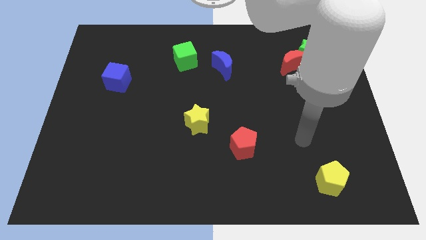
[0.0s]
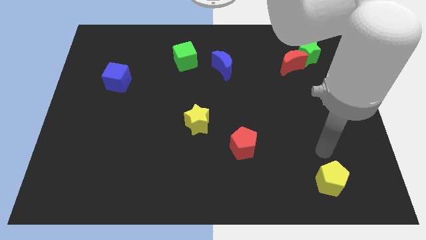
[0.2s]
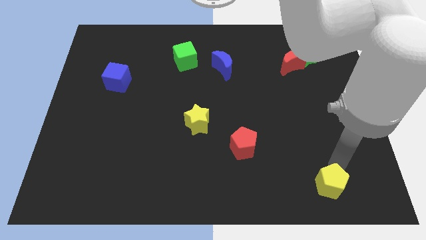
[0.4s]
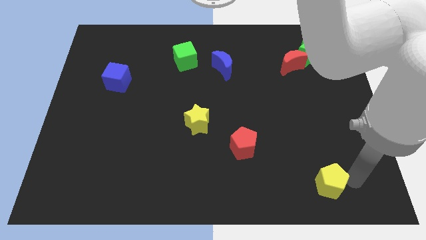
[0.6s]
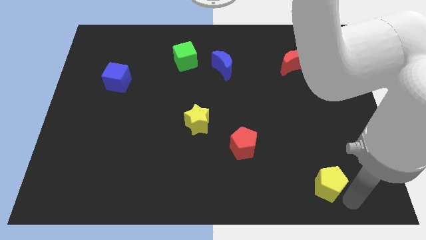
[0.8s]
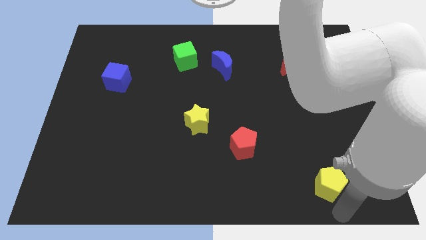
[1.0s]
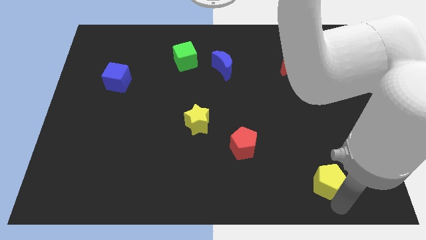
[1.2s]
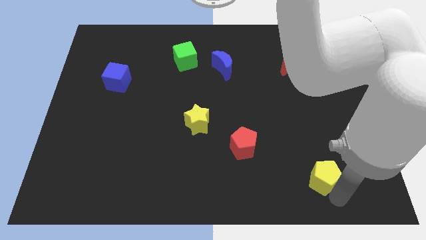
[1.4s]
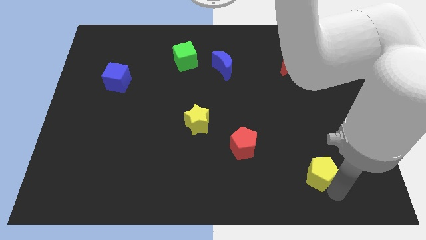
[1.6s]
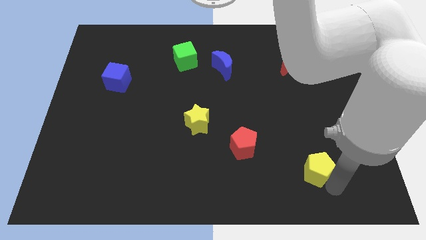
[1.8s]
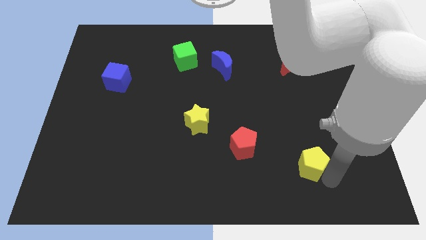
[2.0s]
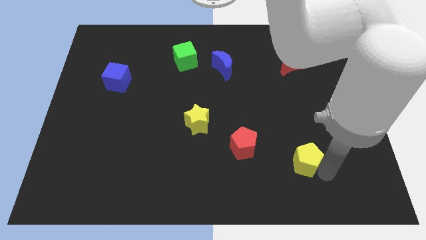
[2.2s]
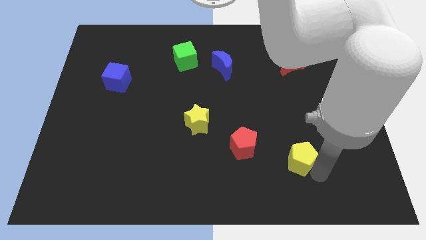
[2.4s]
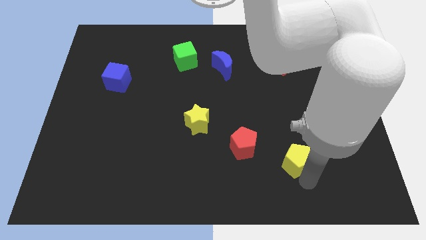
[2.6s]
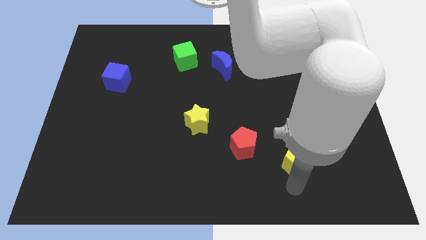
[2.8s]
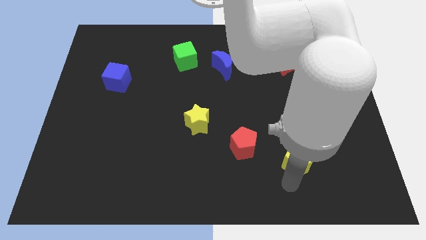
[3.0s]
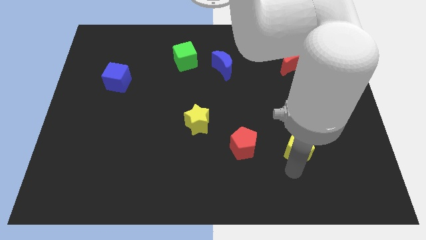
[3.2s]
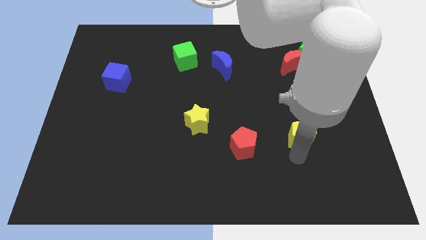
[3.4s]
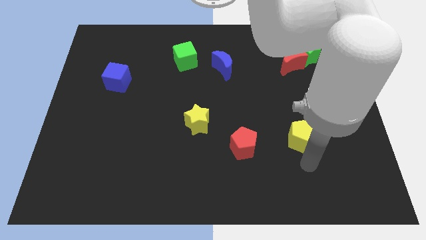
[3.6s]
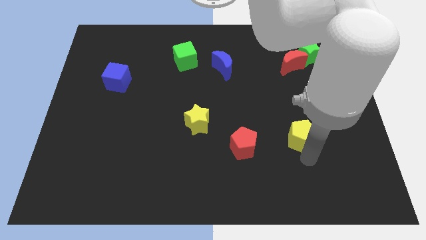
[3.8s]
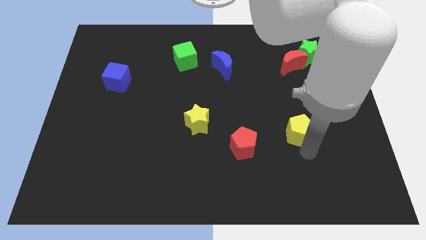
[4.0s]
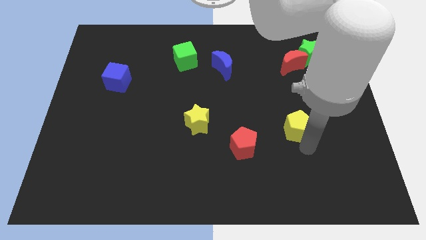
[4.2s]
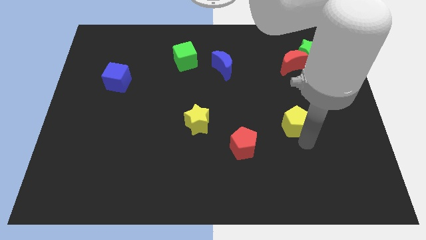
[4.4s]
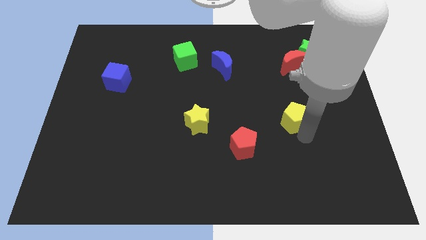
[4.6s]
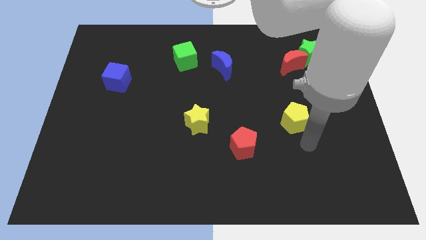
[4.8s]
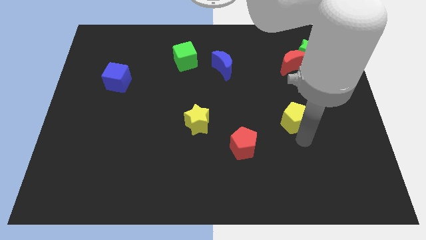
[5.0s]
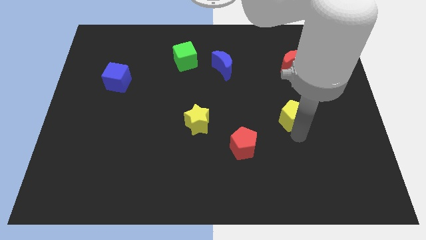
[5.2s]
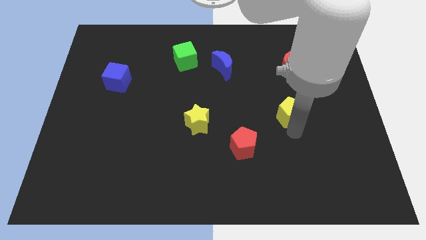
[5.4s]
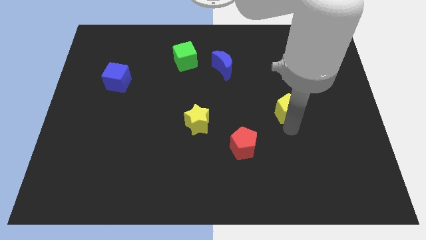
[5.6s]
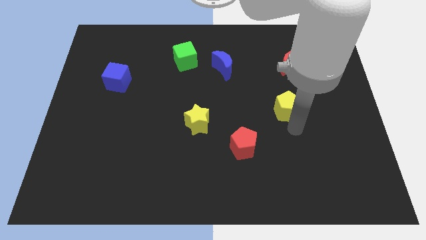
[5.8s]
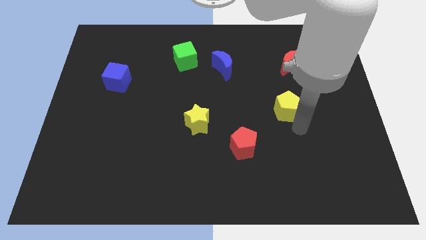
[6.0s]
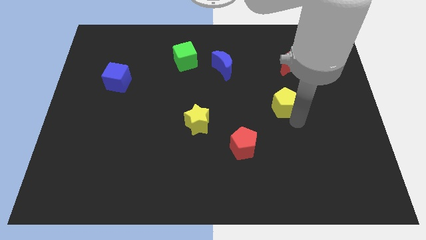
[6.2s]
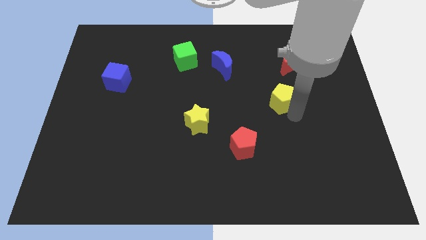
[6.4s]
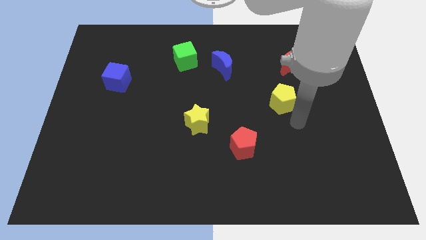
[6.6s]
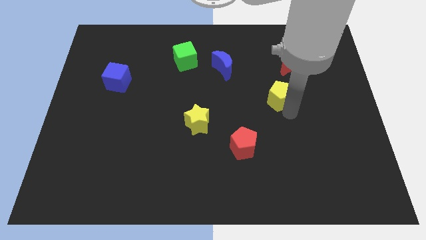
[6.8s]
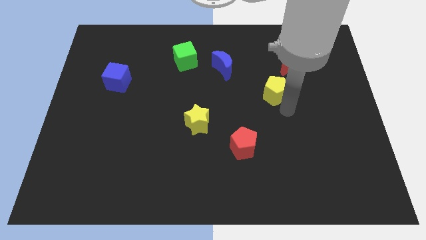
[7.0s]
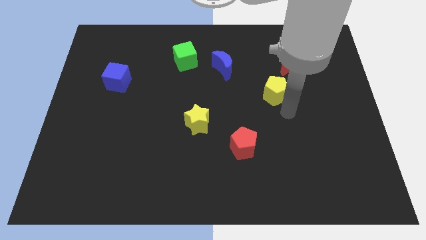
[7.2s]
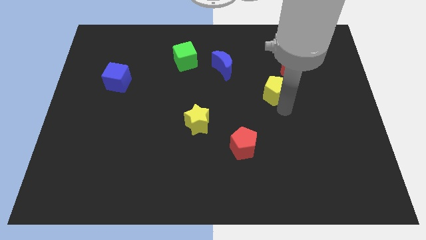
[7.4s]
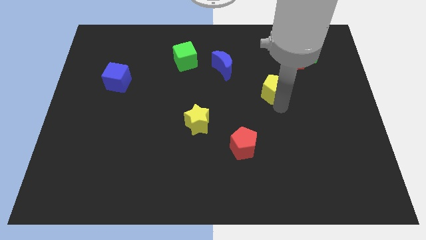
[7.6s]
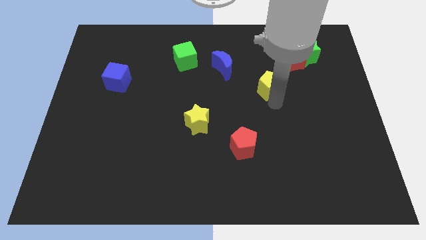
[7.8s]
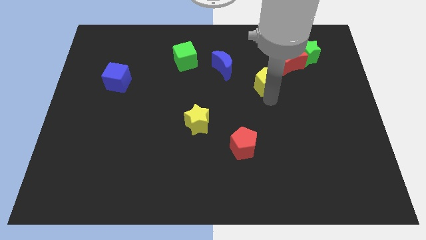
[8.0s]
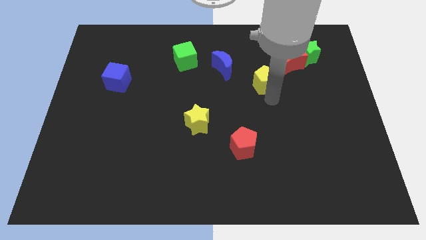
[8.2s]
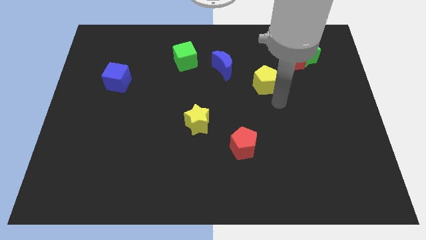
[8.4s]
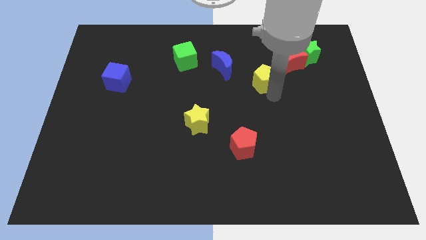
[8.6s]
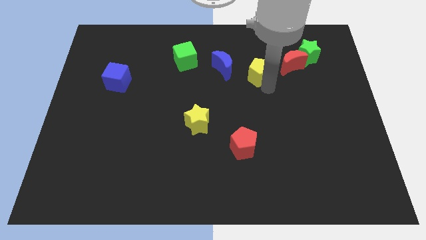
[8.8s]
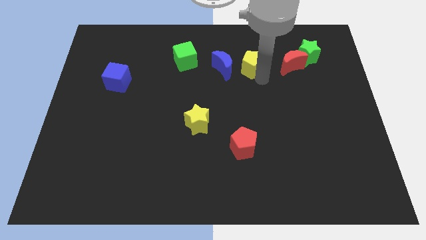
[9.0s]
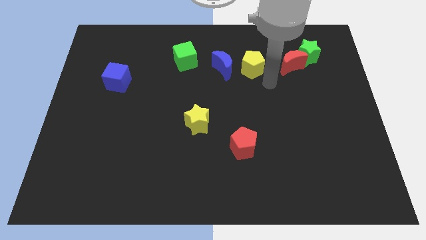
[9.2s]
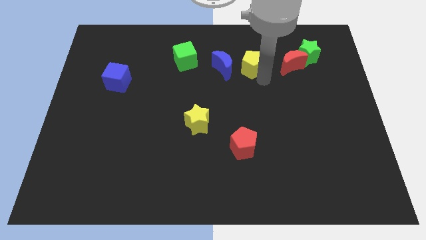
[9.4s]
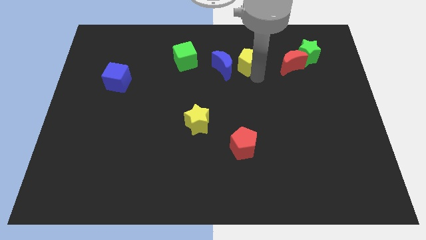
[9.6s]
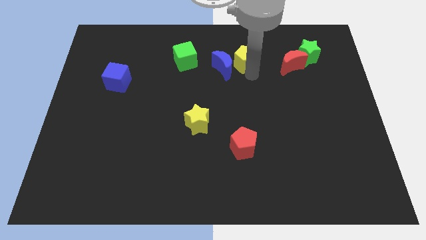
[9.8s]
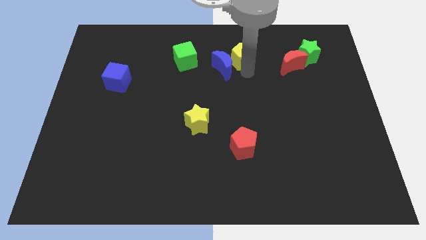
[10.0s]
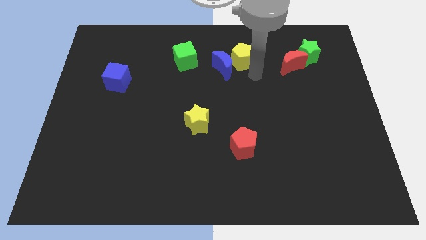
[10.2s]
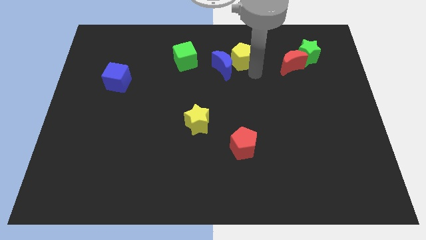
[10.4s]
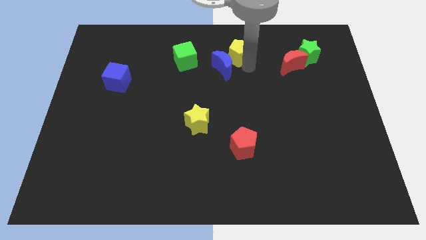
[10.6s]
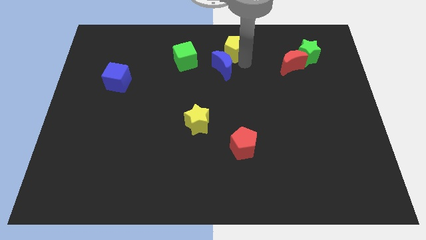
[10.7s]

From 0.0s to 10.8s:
push the yellow pentagon to the top

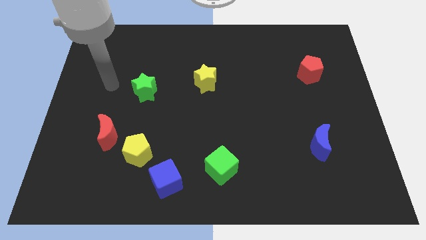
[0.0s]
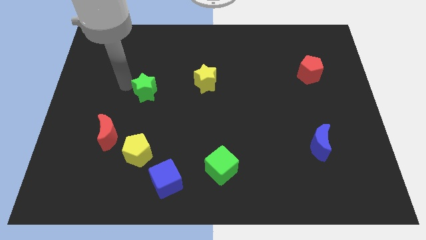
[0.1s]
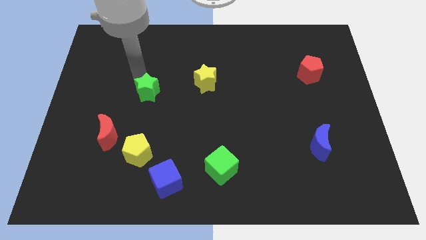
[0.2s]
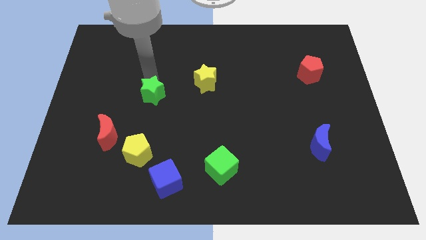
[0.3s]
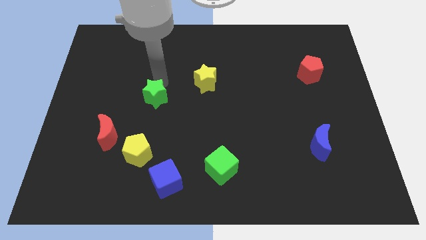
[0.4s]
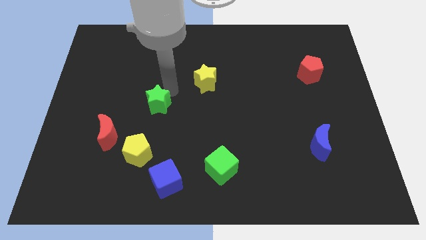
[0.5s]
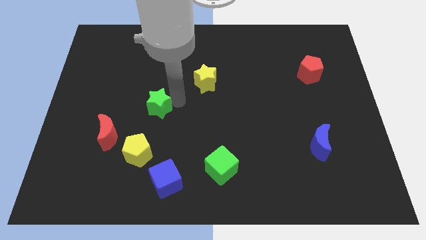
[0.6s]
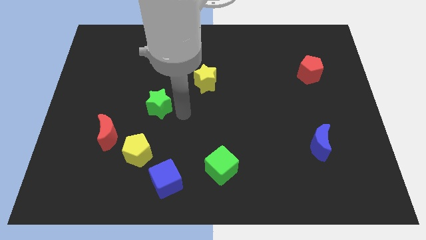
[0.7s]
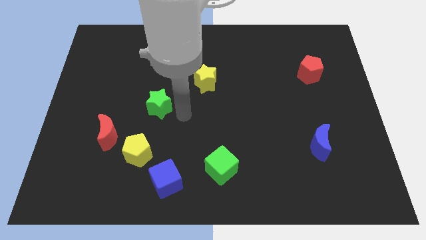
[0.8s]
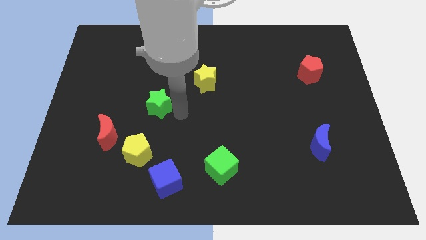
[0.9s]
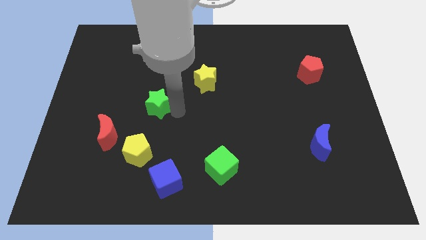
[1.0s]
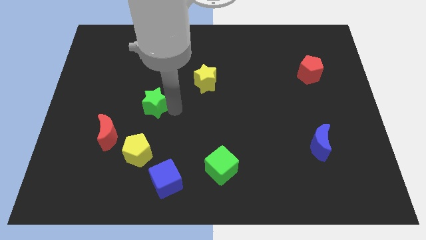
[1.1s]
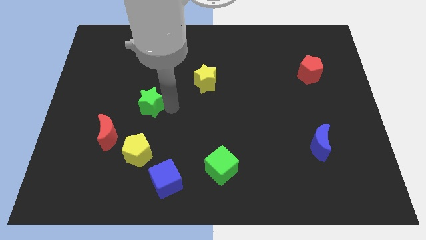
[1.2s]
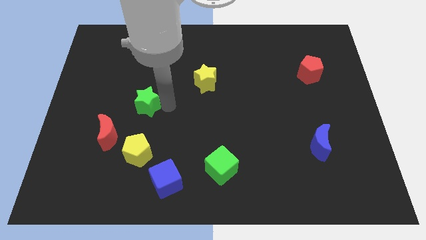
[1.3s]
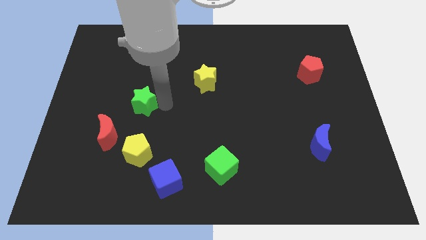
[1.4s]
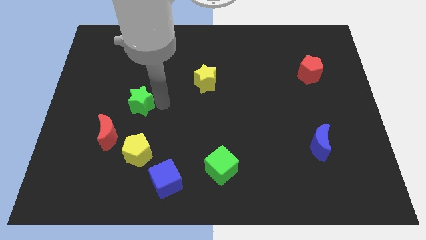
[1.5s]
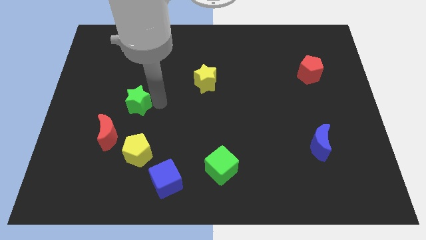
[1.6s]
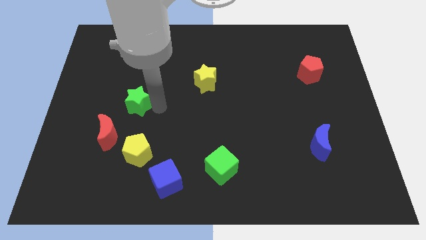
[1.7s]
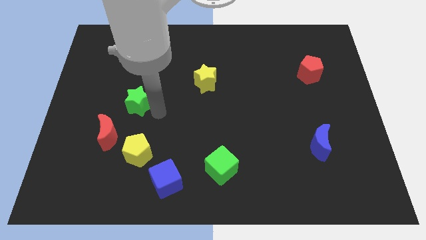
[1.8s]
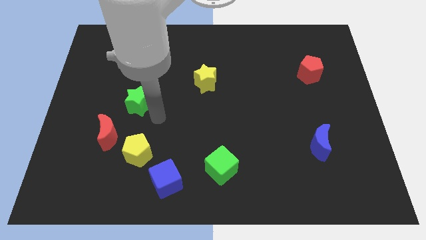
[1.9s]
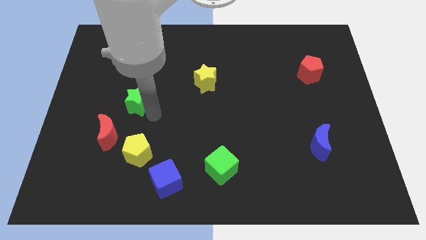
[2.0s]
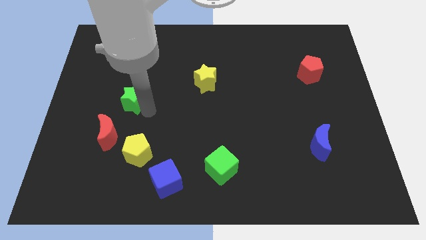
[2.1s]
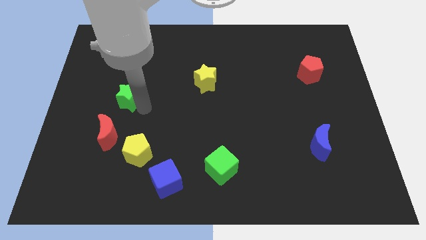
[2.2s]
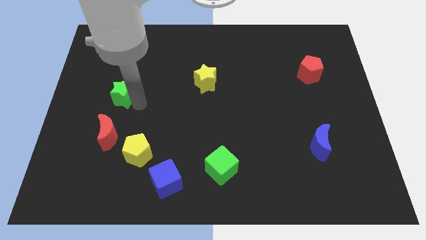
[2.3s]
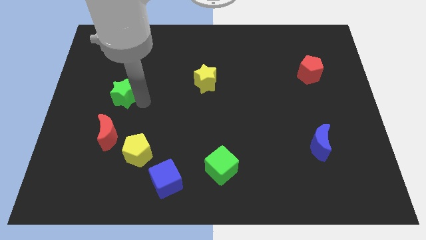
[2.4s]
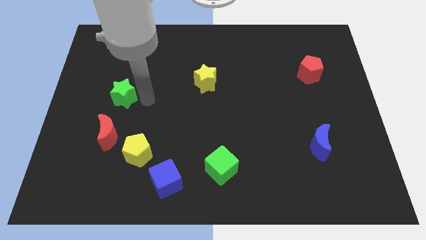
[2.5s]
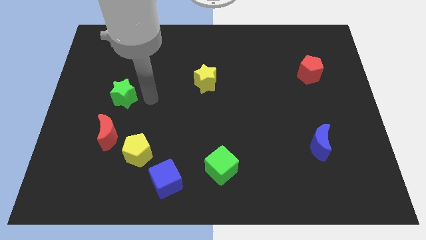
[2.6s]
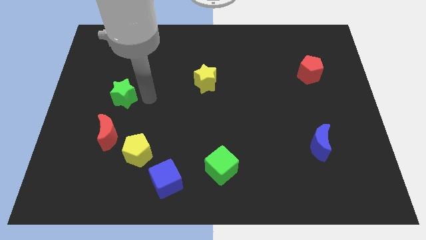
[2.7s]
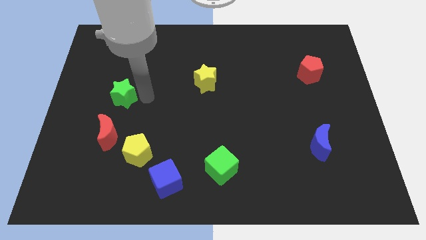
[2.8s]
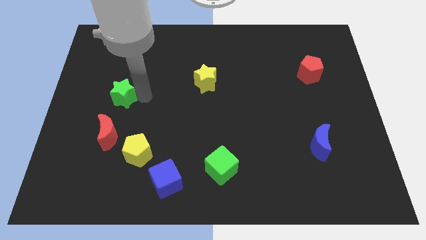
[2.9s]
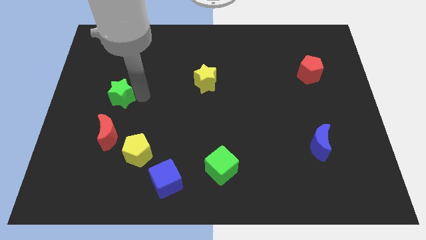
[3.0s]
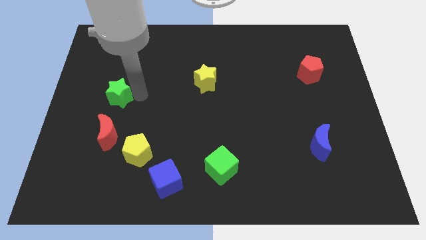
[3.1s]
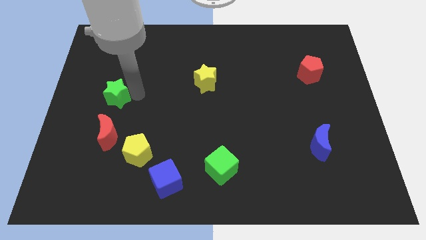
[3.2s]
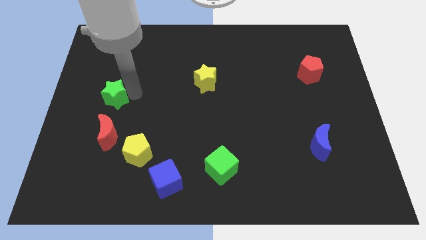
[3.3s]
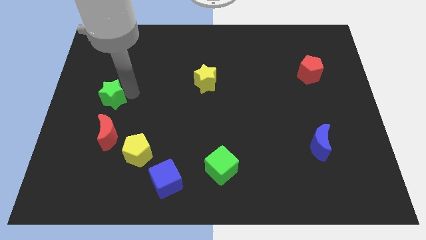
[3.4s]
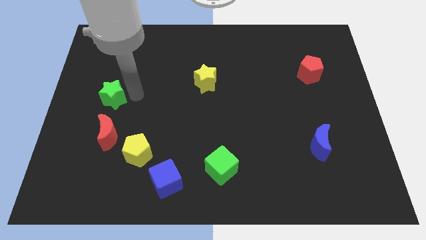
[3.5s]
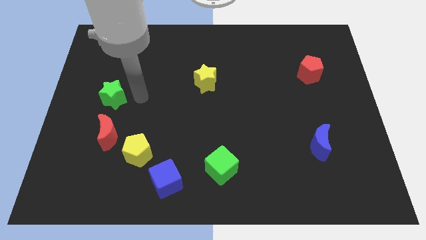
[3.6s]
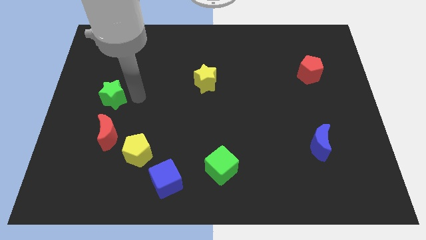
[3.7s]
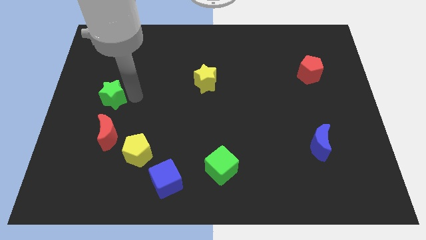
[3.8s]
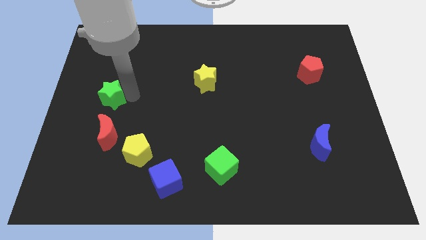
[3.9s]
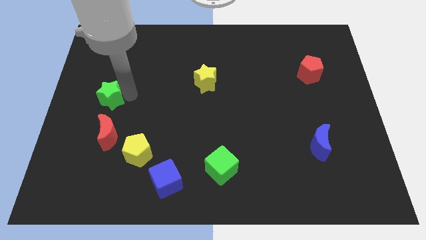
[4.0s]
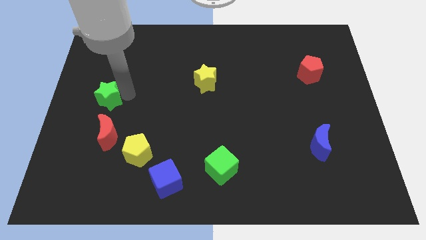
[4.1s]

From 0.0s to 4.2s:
put the green star to the left side of the board
